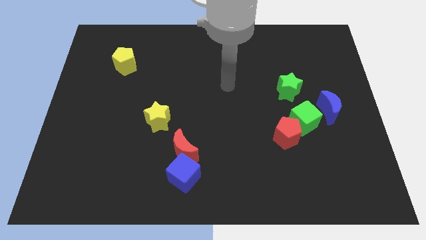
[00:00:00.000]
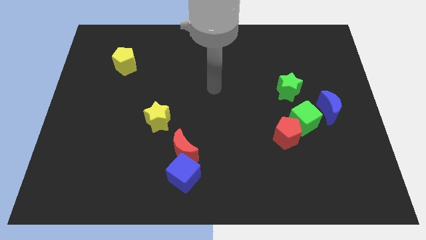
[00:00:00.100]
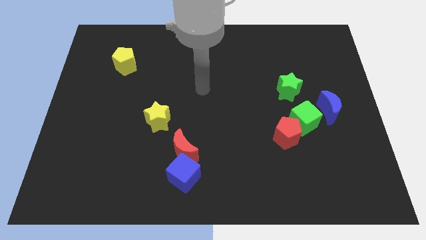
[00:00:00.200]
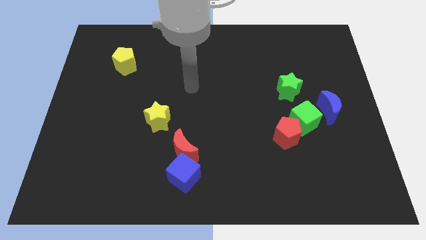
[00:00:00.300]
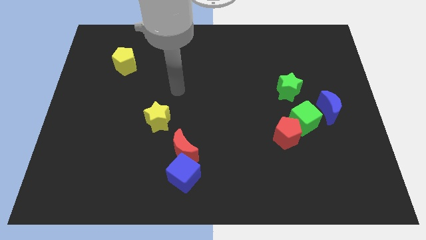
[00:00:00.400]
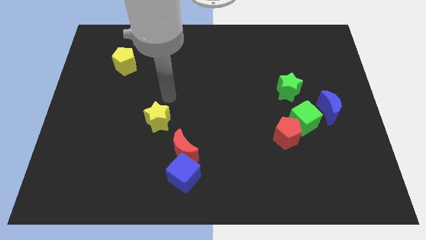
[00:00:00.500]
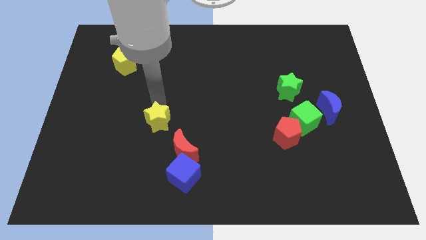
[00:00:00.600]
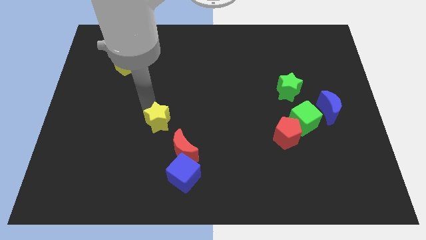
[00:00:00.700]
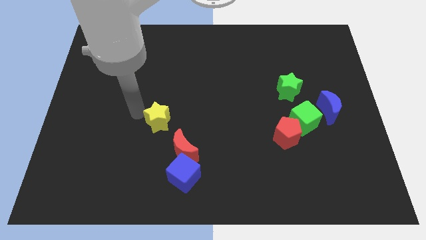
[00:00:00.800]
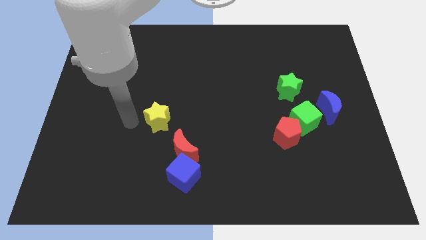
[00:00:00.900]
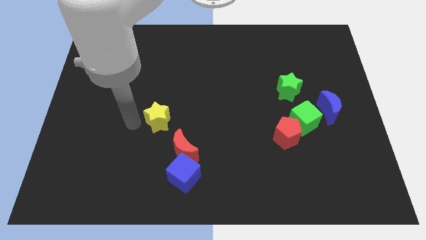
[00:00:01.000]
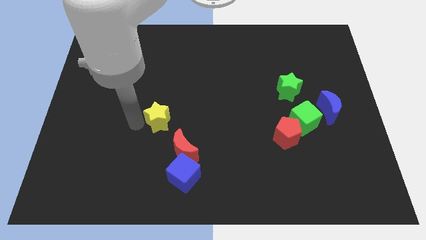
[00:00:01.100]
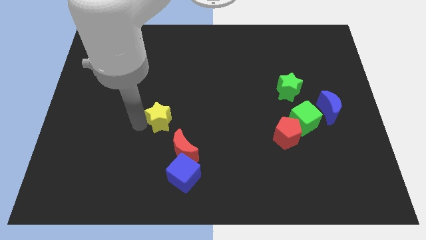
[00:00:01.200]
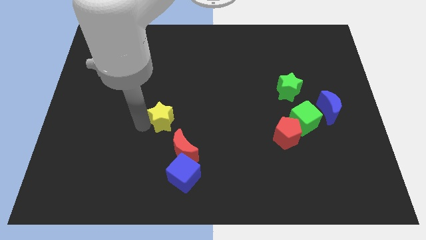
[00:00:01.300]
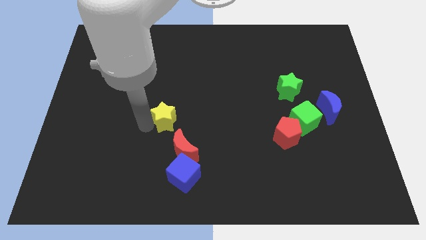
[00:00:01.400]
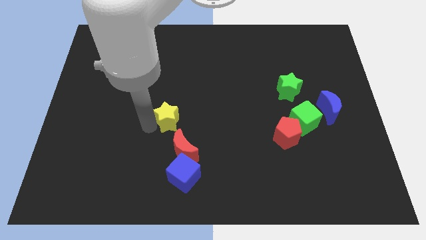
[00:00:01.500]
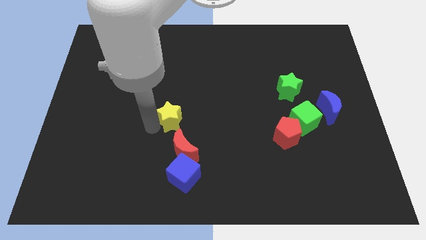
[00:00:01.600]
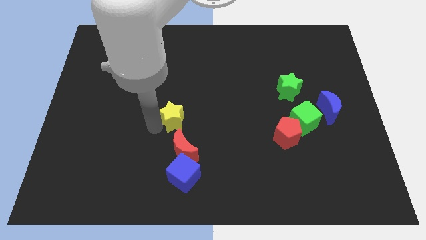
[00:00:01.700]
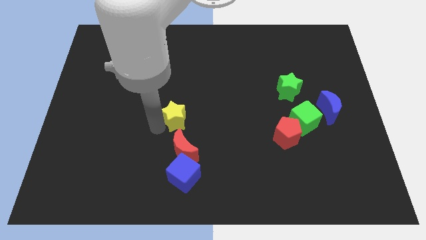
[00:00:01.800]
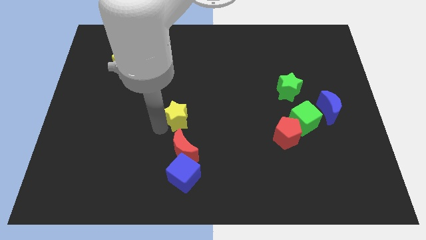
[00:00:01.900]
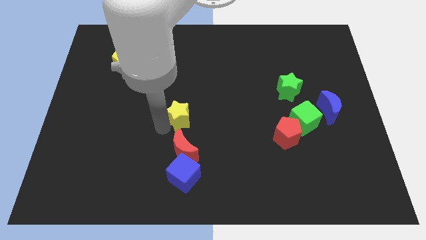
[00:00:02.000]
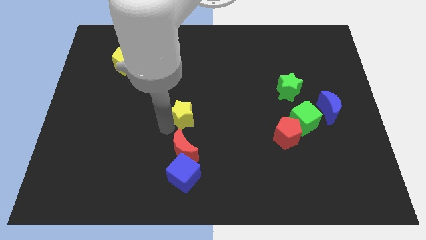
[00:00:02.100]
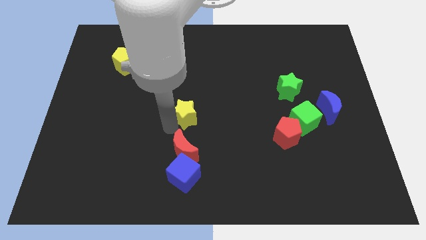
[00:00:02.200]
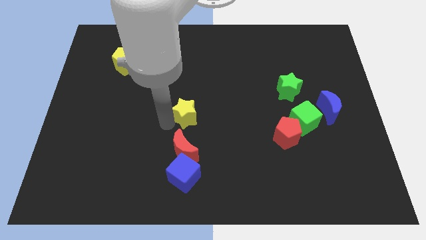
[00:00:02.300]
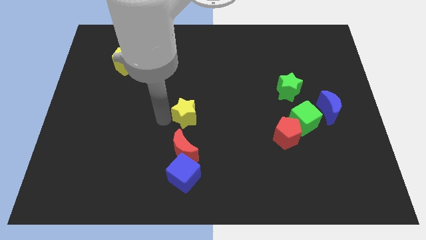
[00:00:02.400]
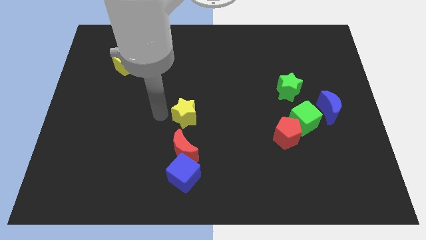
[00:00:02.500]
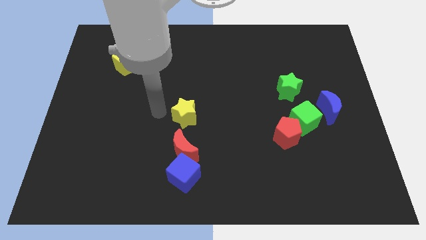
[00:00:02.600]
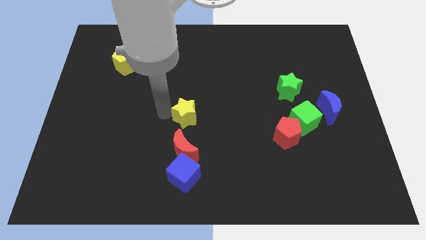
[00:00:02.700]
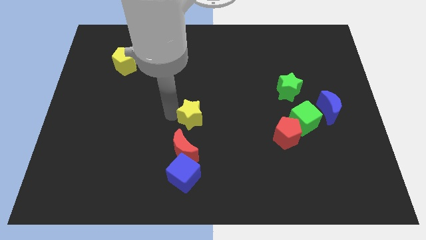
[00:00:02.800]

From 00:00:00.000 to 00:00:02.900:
slide the yellow star to the right a little bit

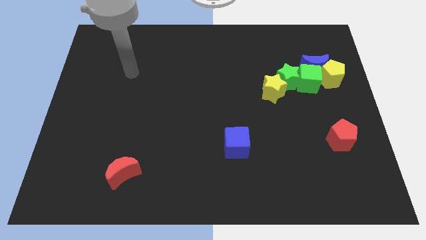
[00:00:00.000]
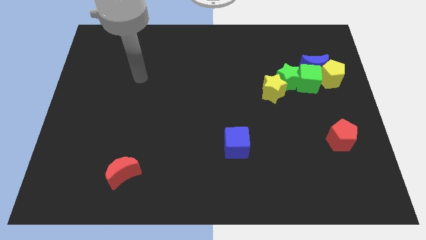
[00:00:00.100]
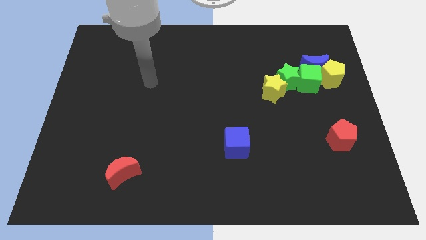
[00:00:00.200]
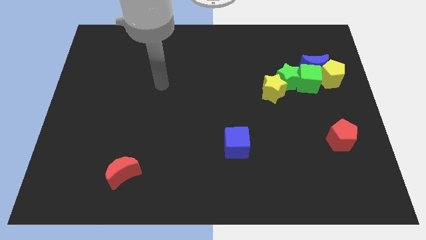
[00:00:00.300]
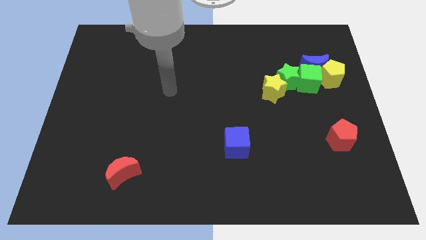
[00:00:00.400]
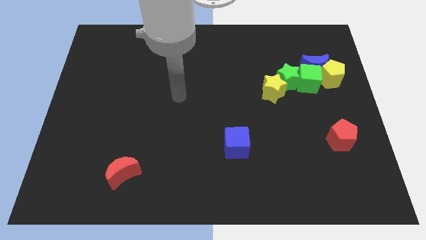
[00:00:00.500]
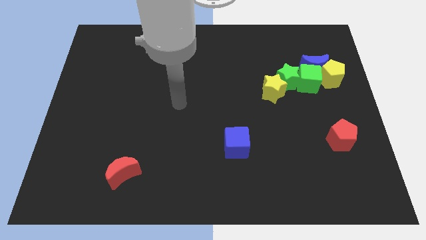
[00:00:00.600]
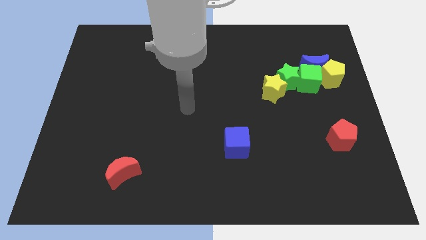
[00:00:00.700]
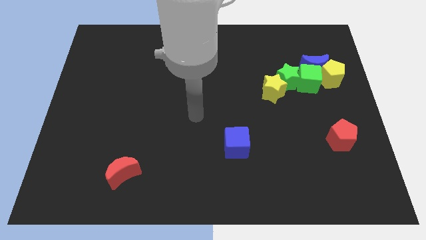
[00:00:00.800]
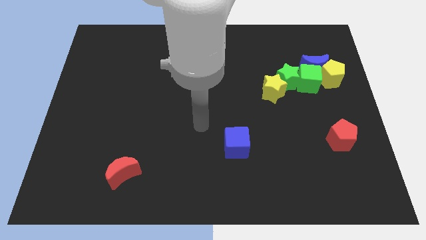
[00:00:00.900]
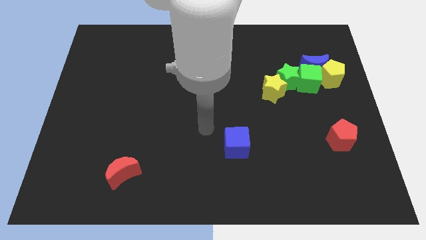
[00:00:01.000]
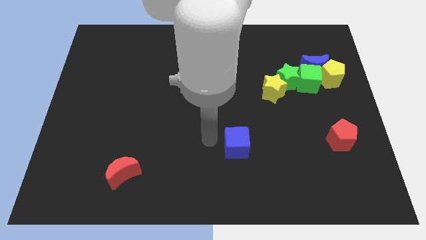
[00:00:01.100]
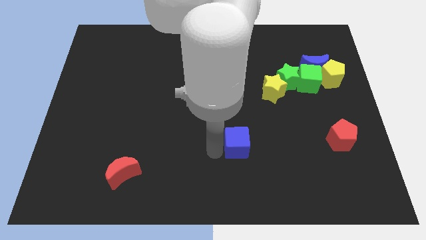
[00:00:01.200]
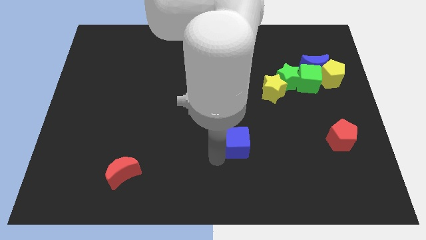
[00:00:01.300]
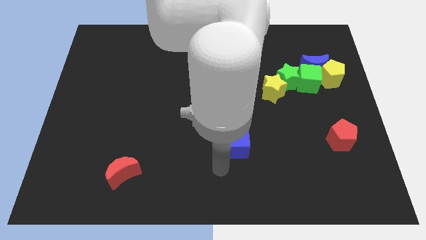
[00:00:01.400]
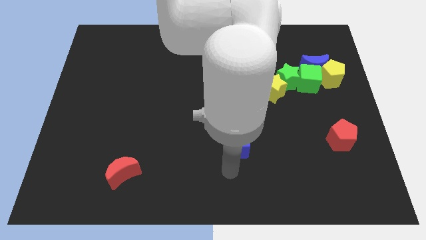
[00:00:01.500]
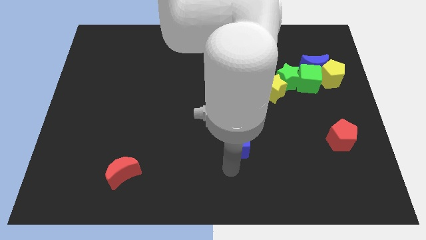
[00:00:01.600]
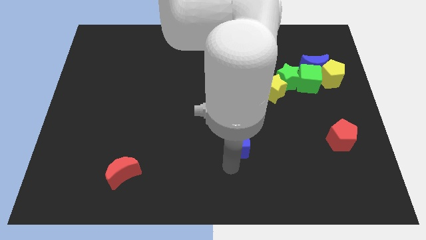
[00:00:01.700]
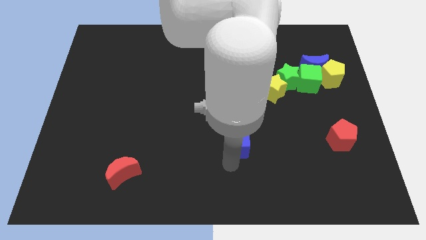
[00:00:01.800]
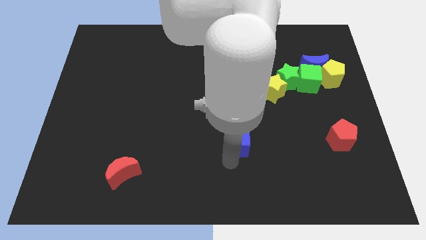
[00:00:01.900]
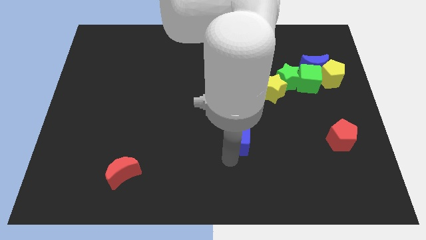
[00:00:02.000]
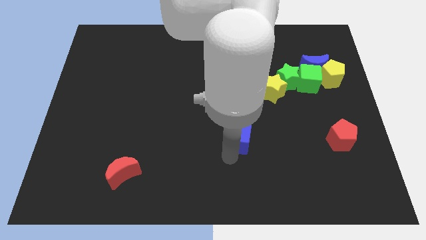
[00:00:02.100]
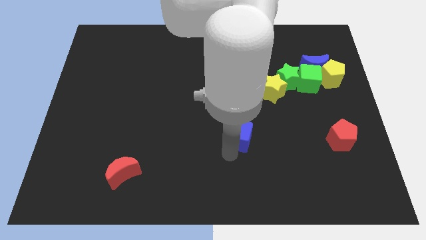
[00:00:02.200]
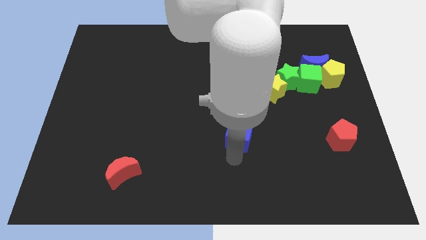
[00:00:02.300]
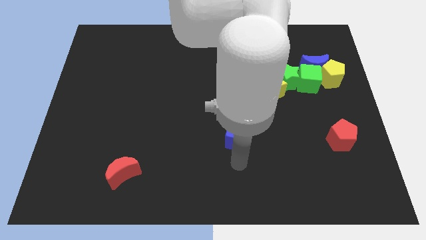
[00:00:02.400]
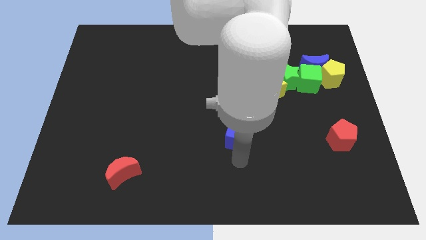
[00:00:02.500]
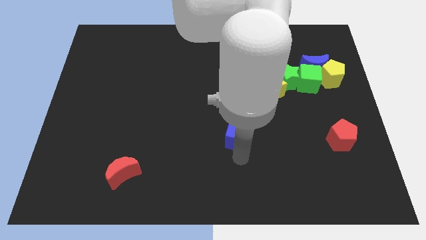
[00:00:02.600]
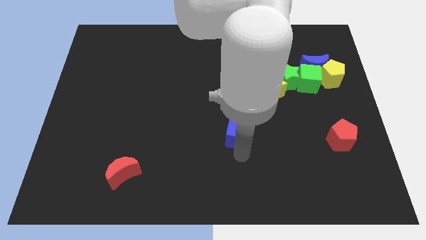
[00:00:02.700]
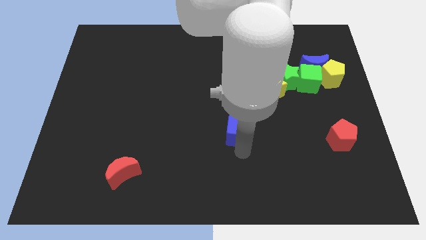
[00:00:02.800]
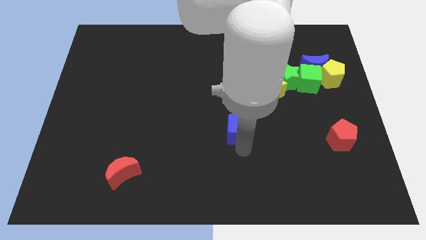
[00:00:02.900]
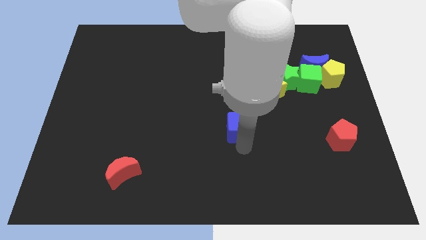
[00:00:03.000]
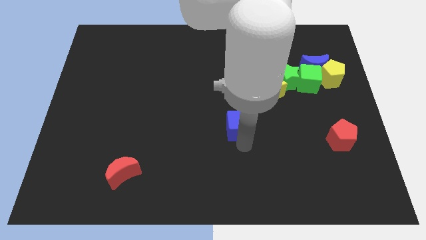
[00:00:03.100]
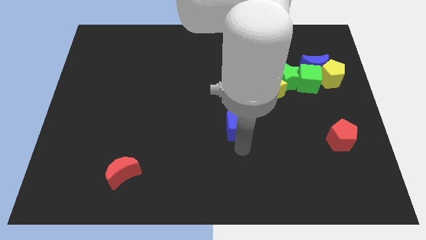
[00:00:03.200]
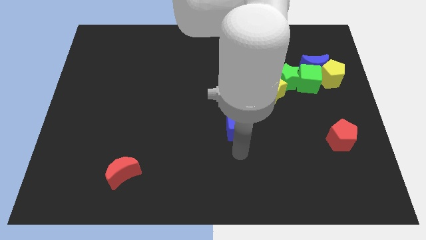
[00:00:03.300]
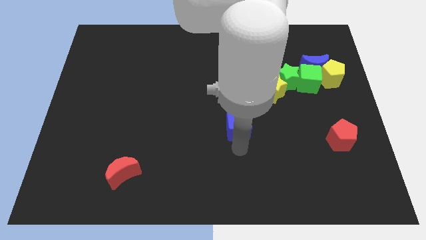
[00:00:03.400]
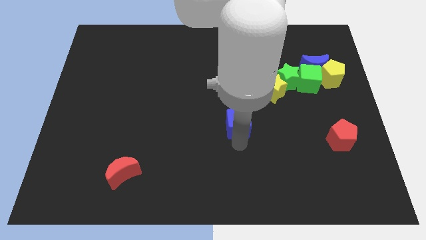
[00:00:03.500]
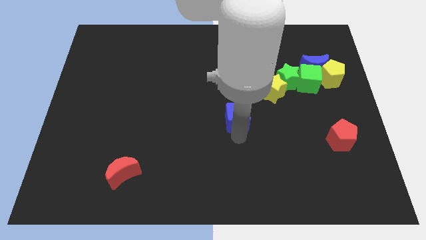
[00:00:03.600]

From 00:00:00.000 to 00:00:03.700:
slide the blue cube slightly up

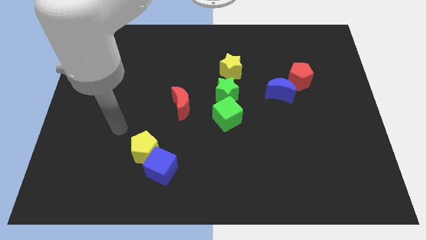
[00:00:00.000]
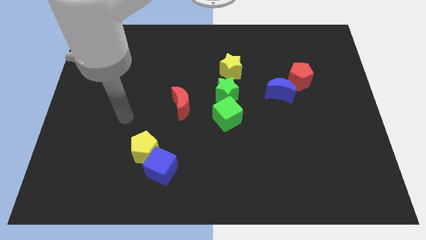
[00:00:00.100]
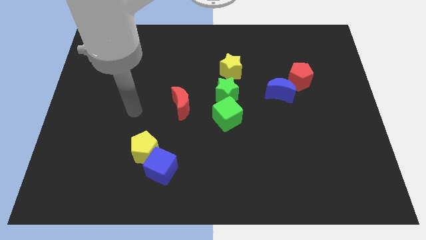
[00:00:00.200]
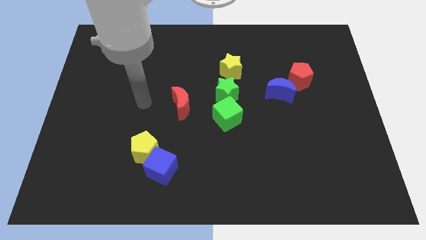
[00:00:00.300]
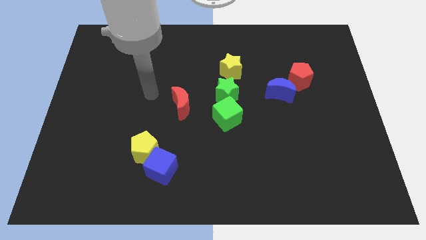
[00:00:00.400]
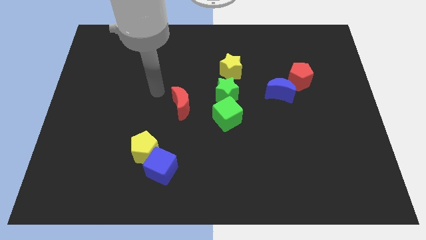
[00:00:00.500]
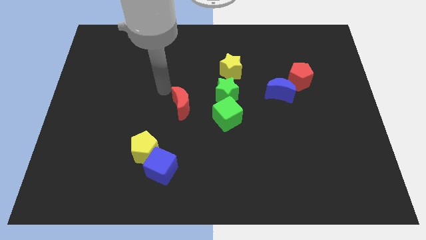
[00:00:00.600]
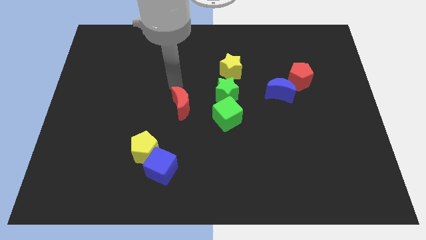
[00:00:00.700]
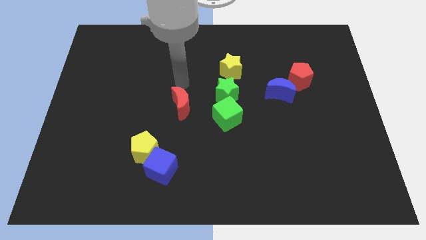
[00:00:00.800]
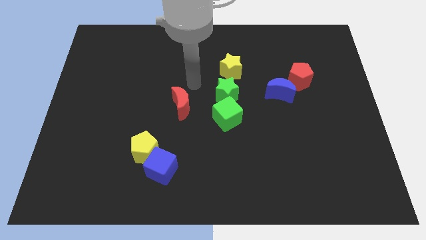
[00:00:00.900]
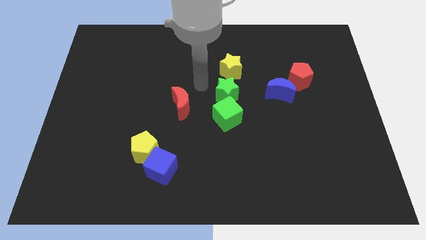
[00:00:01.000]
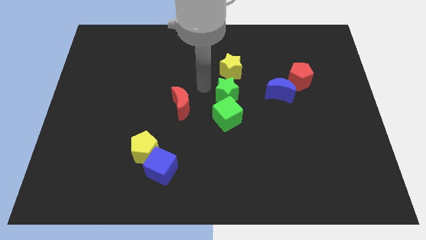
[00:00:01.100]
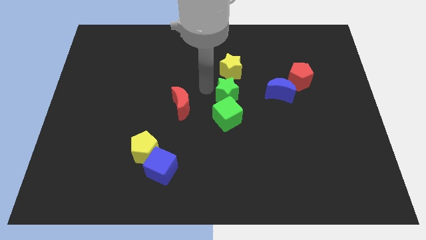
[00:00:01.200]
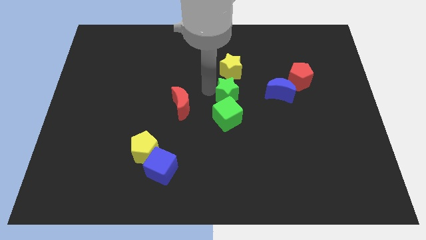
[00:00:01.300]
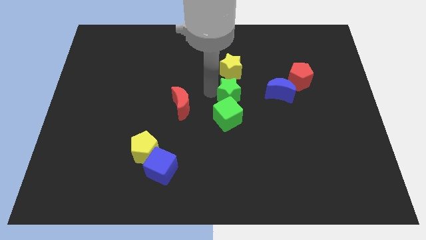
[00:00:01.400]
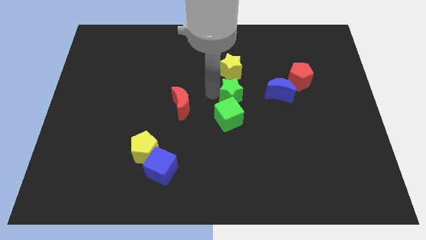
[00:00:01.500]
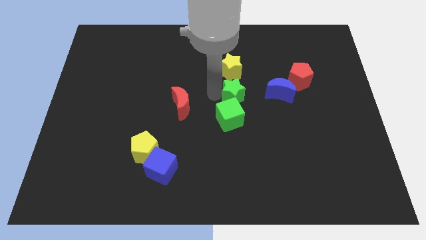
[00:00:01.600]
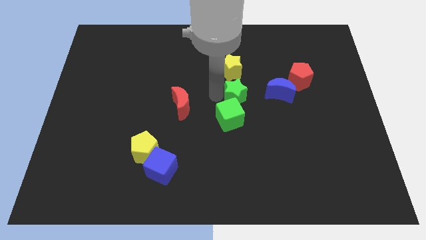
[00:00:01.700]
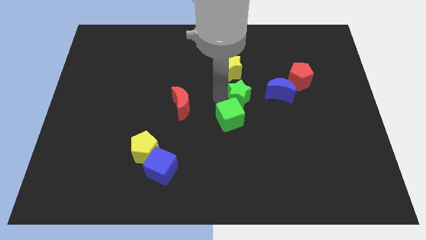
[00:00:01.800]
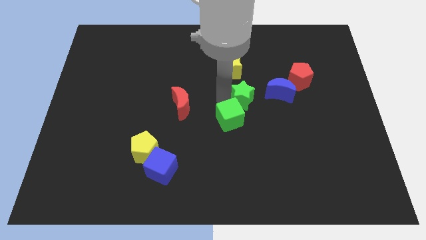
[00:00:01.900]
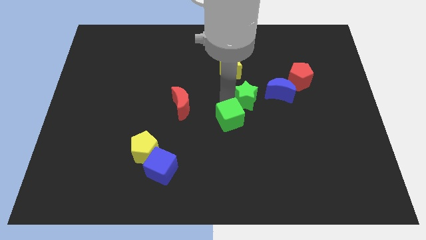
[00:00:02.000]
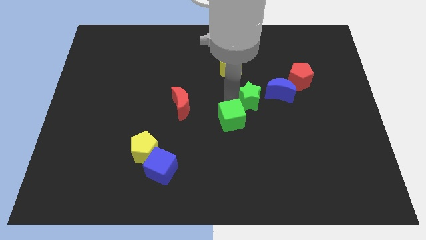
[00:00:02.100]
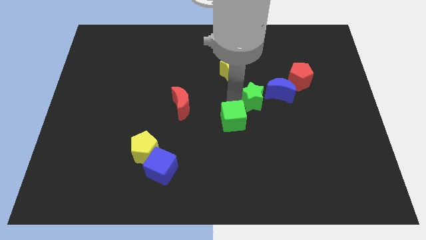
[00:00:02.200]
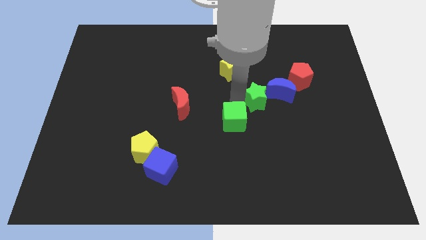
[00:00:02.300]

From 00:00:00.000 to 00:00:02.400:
slide the green star slightly to the right
